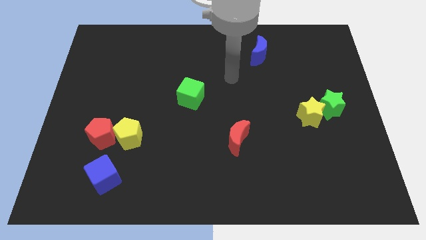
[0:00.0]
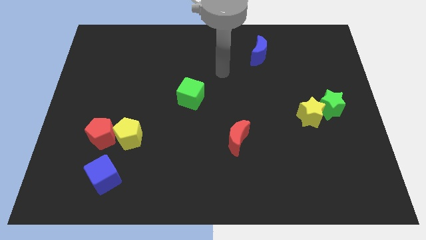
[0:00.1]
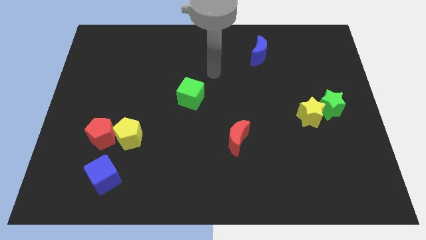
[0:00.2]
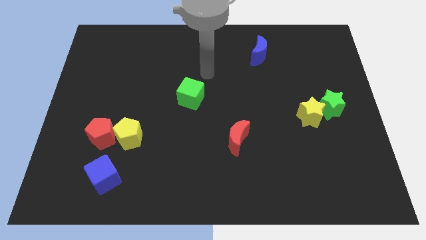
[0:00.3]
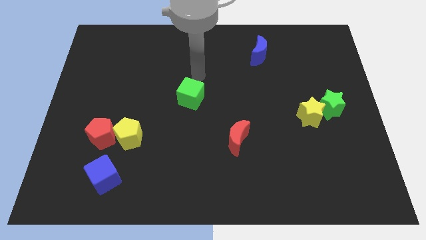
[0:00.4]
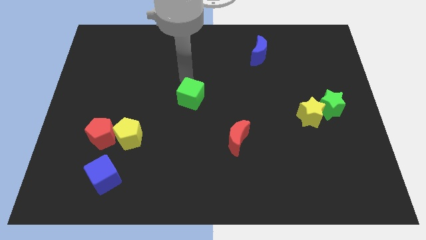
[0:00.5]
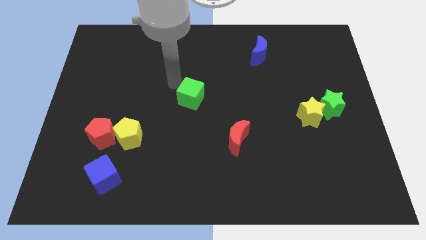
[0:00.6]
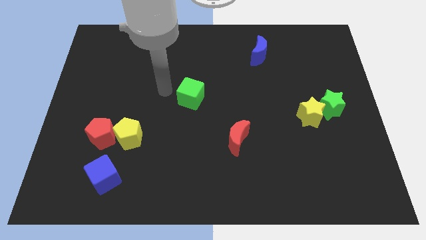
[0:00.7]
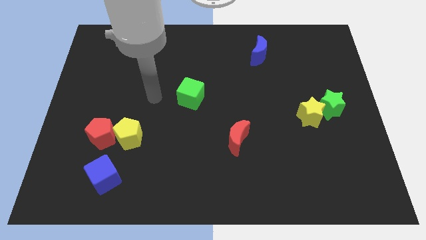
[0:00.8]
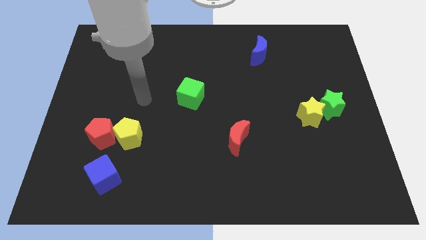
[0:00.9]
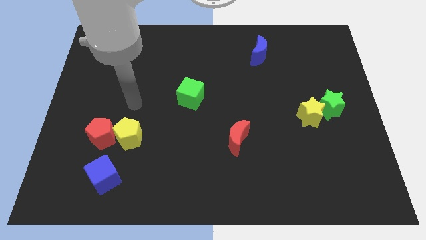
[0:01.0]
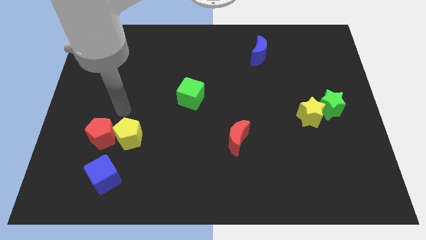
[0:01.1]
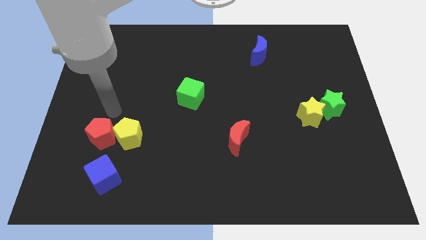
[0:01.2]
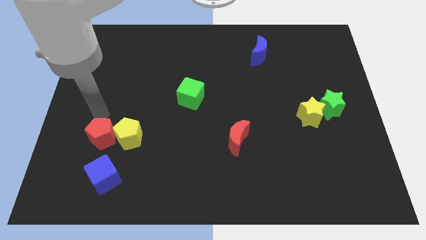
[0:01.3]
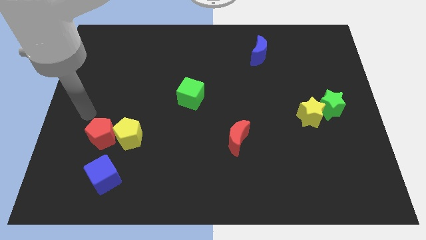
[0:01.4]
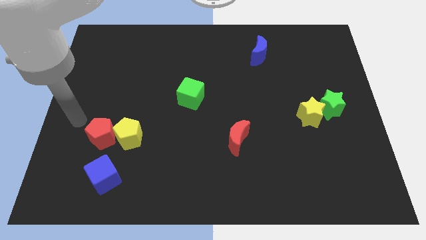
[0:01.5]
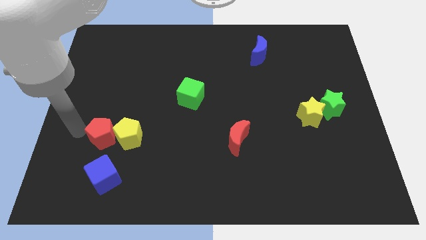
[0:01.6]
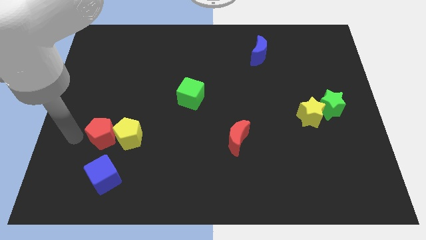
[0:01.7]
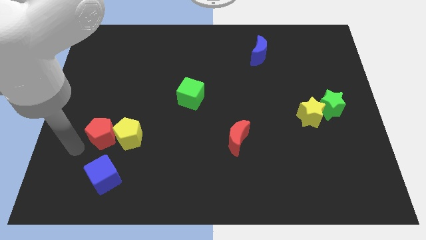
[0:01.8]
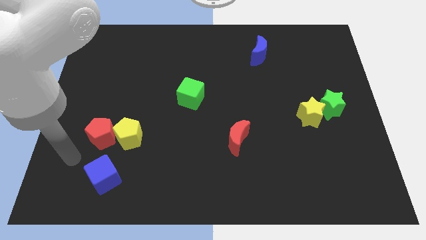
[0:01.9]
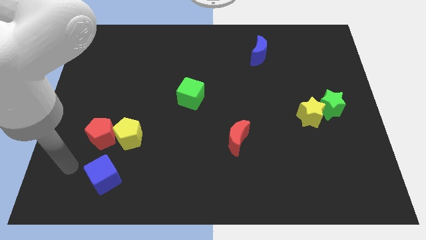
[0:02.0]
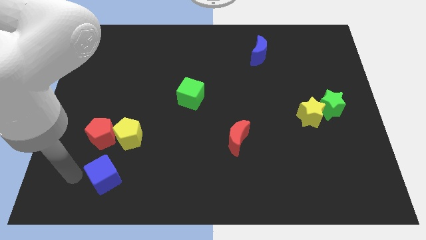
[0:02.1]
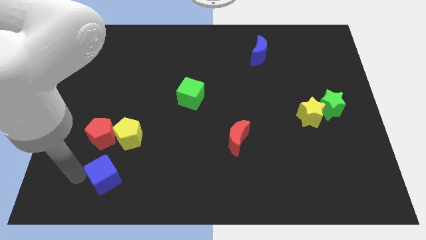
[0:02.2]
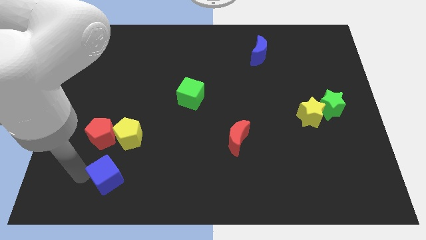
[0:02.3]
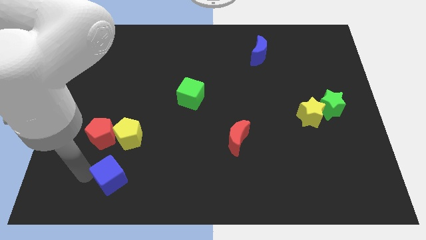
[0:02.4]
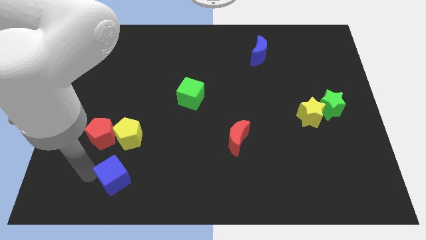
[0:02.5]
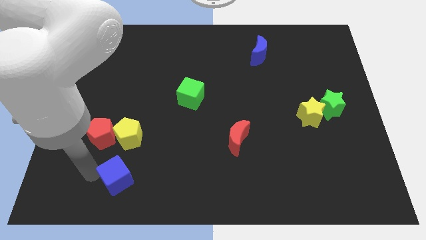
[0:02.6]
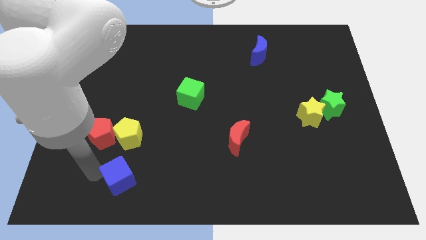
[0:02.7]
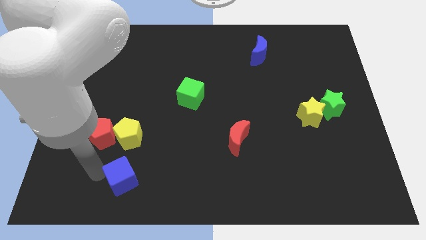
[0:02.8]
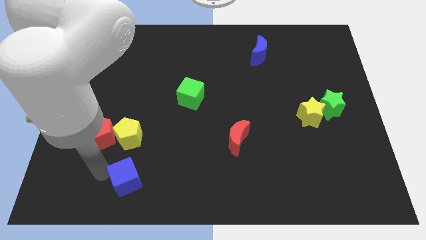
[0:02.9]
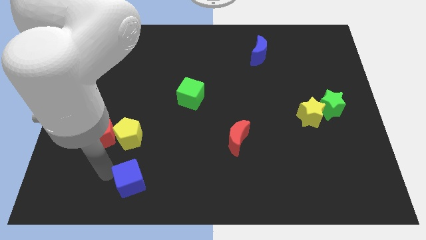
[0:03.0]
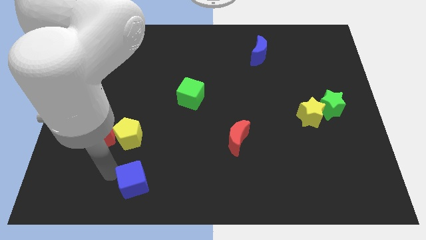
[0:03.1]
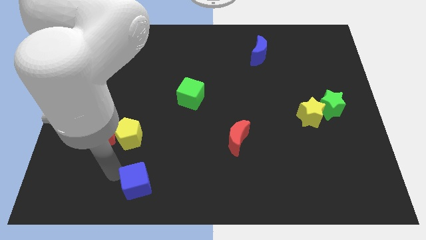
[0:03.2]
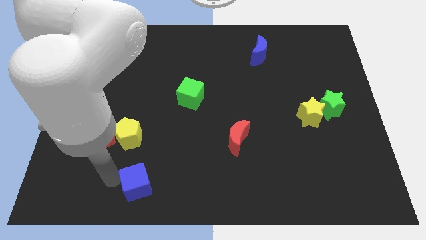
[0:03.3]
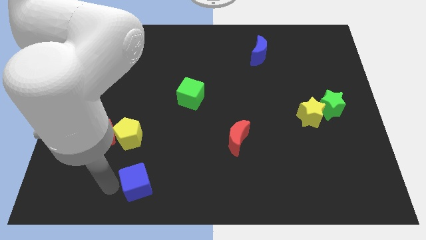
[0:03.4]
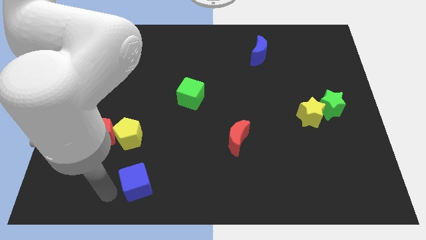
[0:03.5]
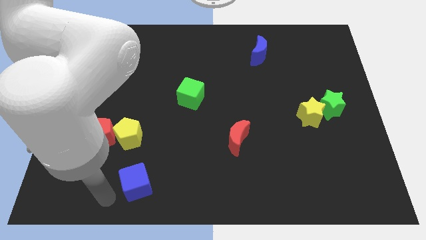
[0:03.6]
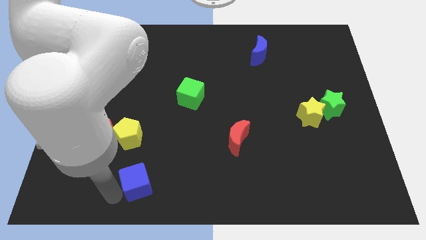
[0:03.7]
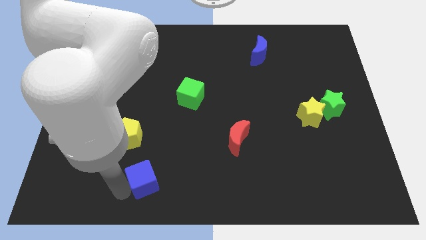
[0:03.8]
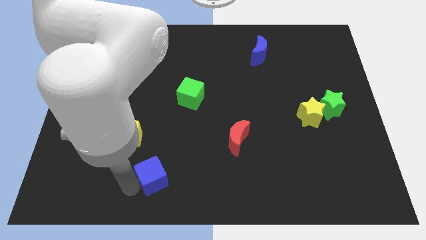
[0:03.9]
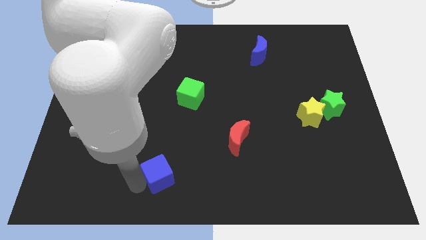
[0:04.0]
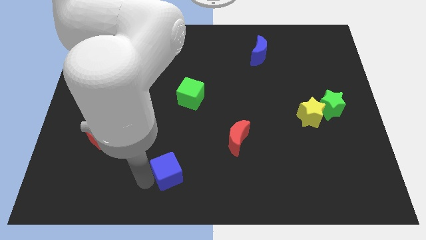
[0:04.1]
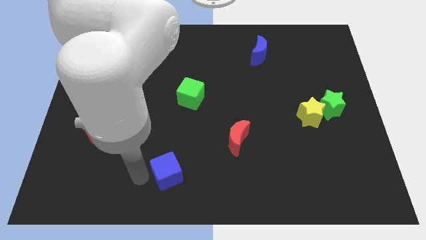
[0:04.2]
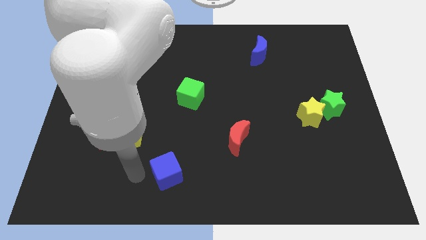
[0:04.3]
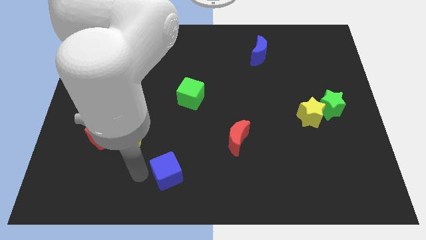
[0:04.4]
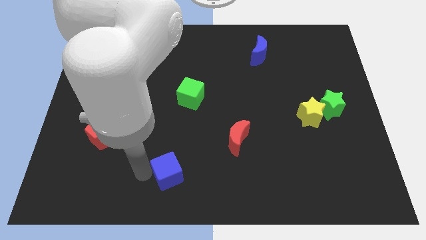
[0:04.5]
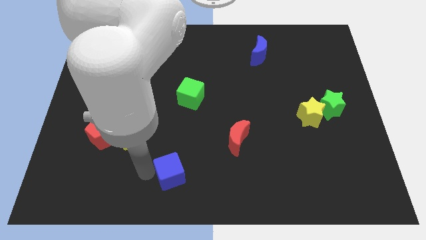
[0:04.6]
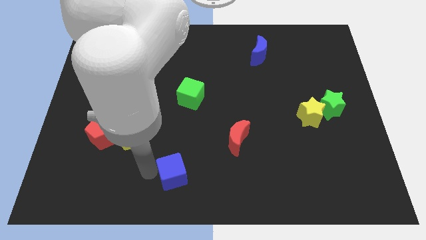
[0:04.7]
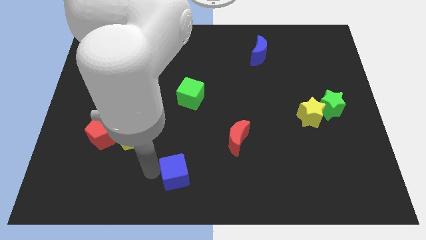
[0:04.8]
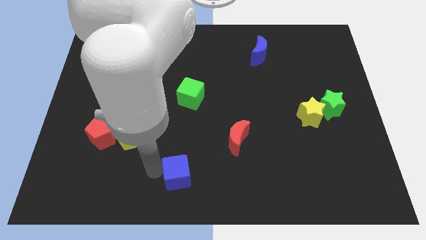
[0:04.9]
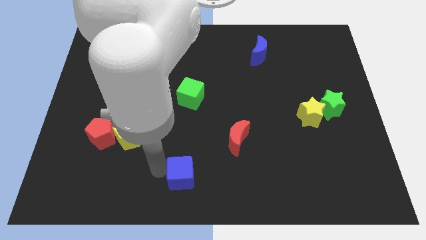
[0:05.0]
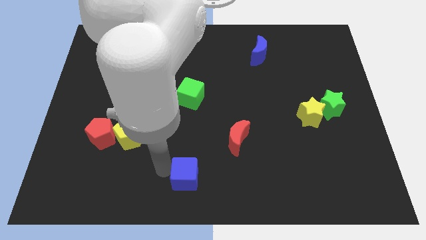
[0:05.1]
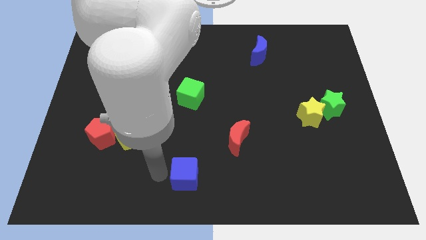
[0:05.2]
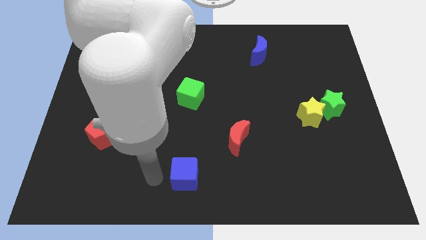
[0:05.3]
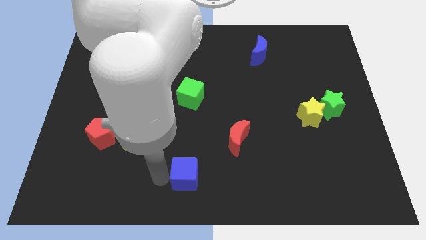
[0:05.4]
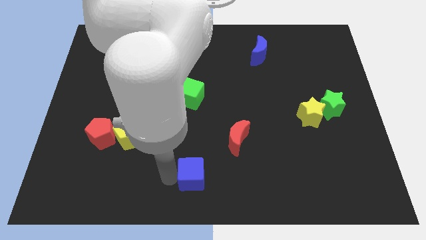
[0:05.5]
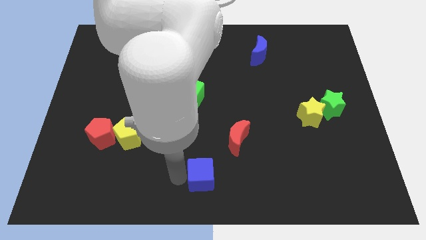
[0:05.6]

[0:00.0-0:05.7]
slide the blue cube right

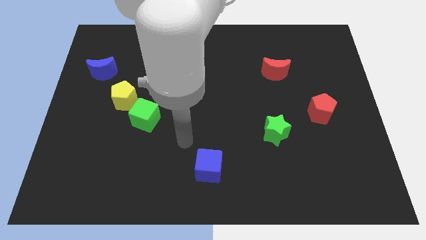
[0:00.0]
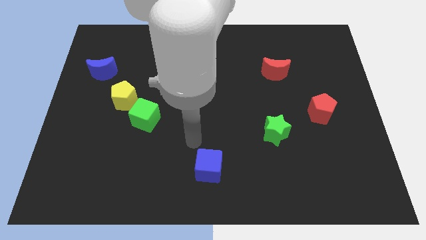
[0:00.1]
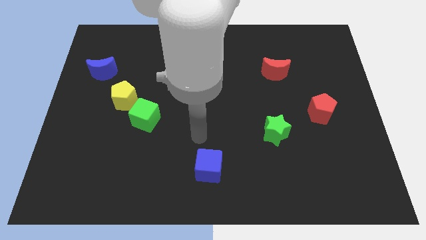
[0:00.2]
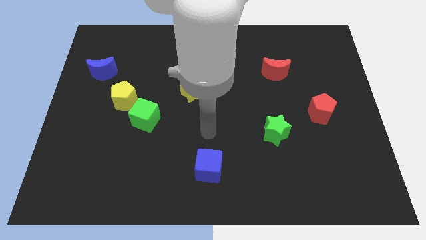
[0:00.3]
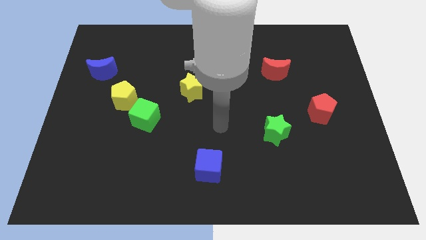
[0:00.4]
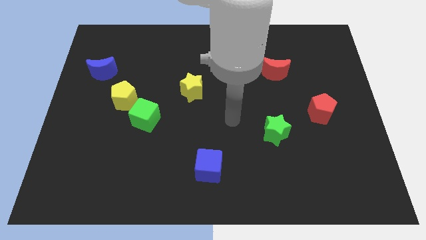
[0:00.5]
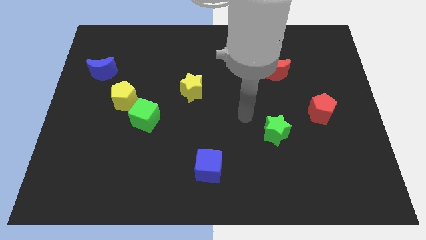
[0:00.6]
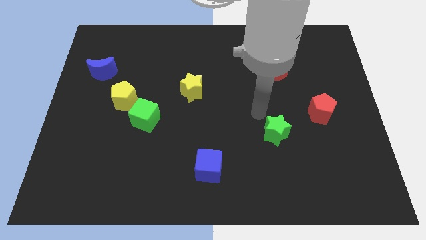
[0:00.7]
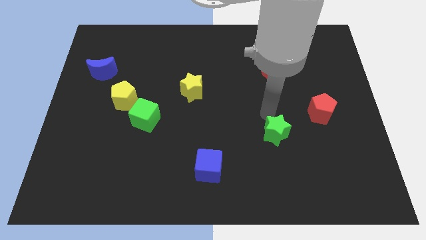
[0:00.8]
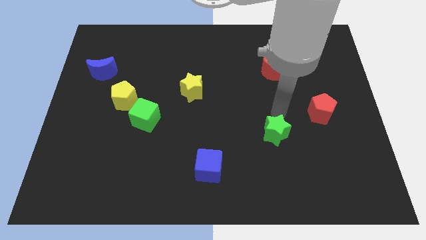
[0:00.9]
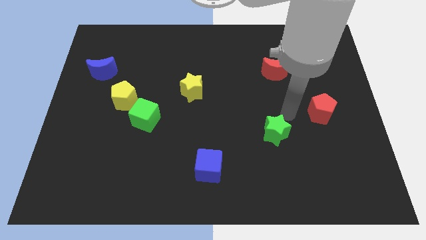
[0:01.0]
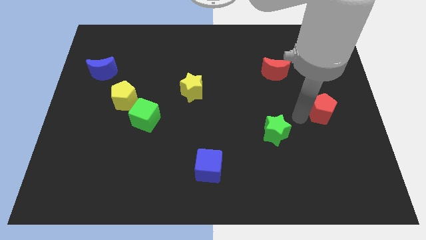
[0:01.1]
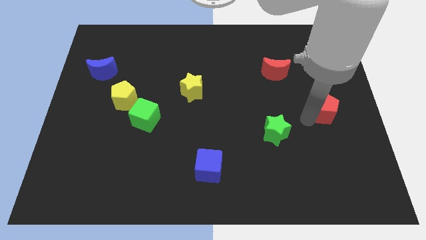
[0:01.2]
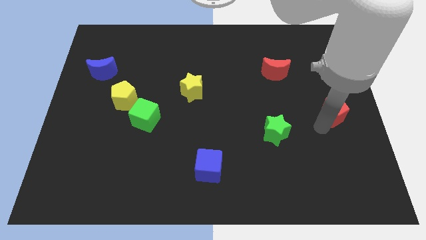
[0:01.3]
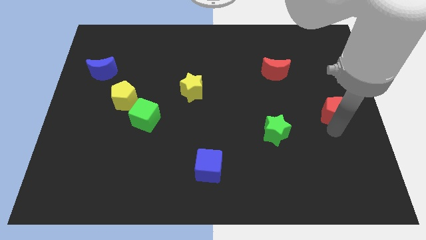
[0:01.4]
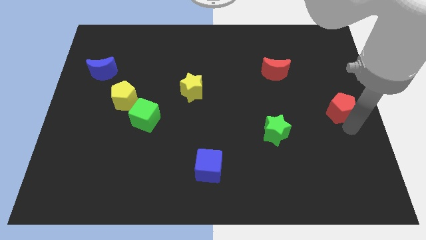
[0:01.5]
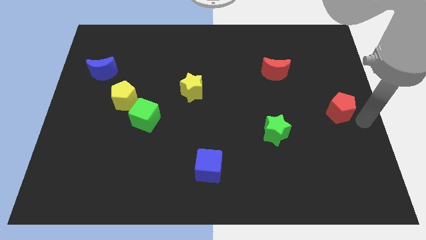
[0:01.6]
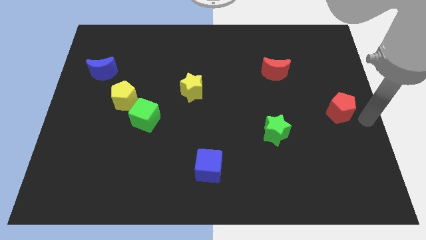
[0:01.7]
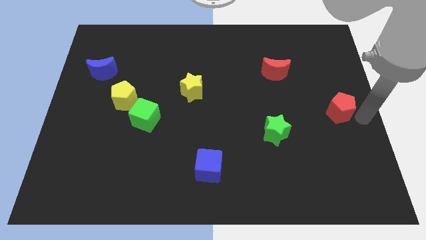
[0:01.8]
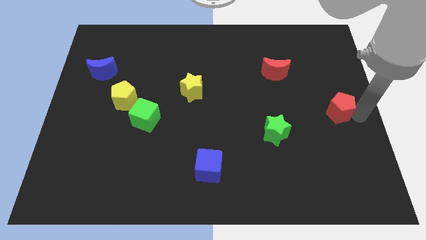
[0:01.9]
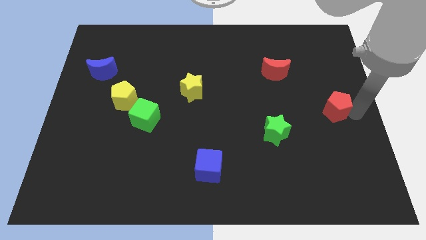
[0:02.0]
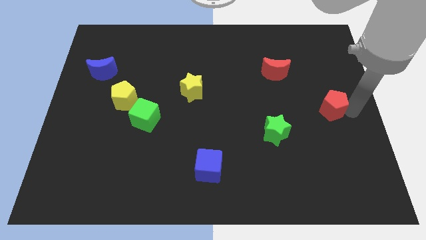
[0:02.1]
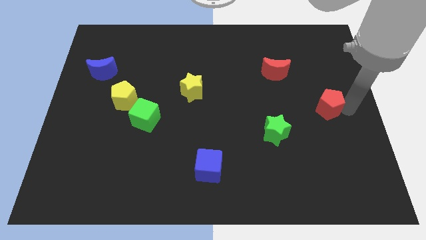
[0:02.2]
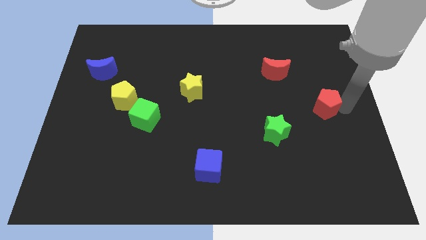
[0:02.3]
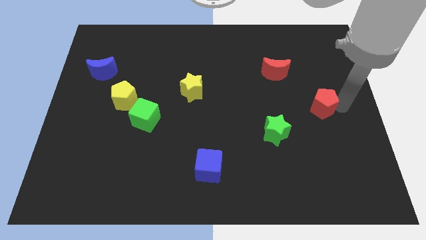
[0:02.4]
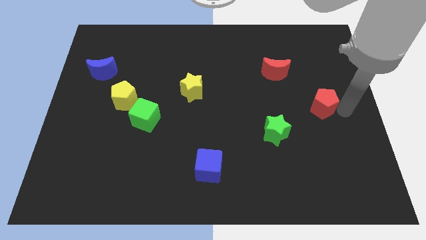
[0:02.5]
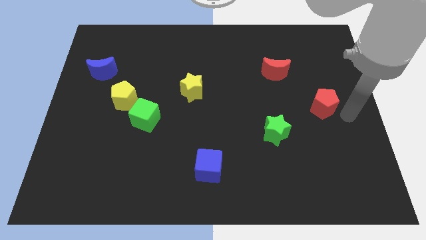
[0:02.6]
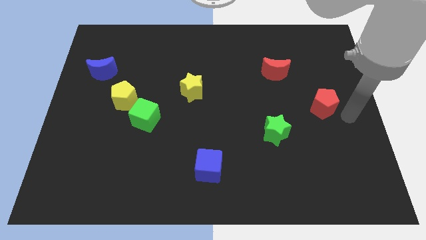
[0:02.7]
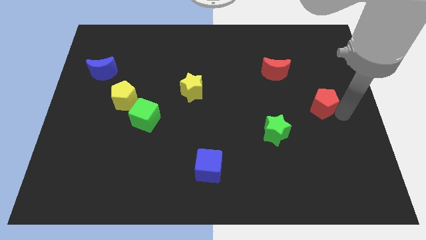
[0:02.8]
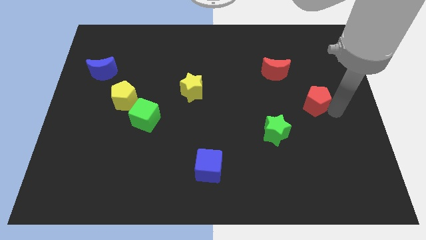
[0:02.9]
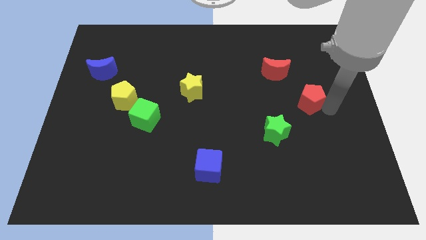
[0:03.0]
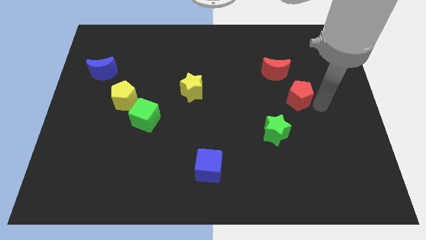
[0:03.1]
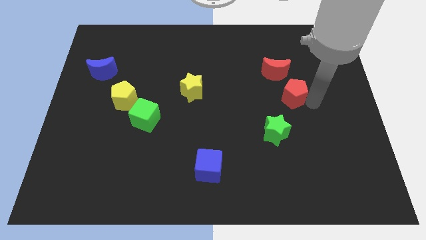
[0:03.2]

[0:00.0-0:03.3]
move the red pentagon slightly up and then to the left
